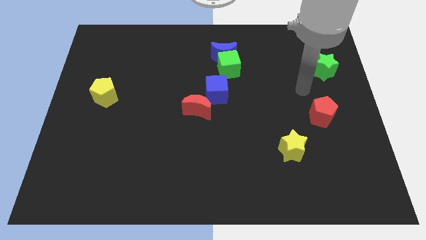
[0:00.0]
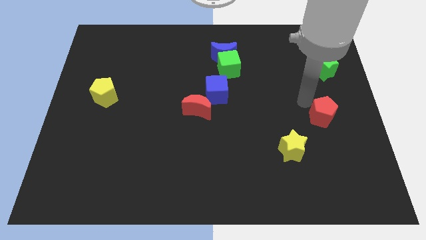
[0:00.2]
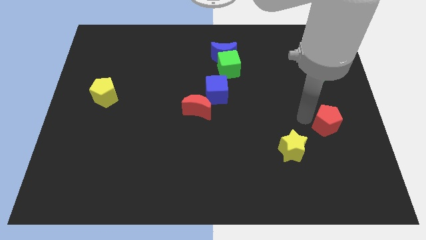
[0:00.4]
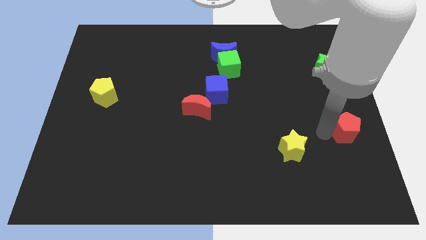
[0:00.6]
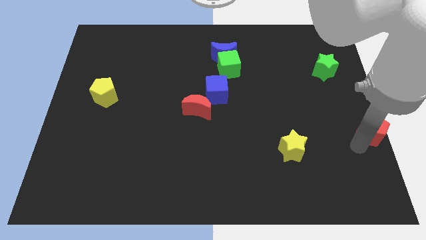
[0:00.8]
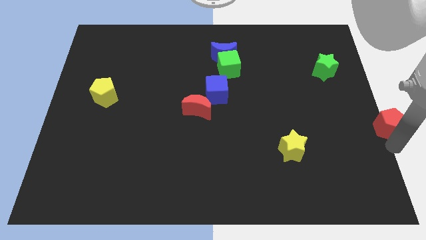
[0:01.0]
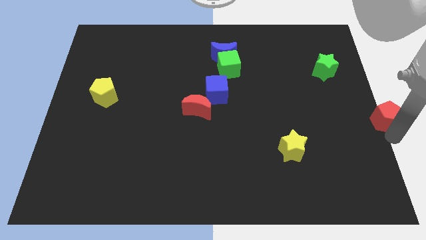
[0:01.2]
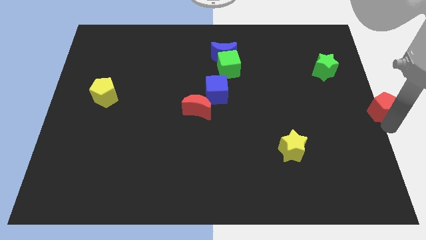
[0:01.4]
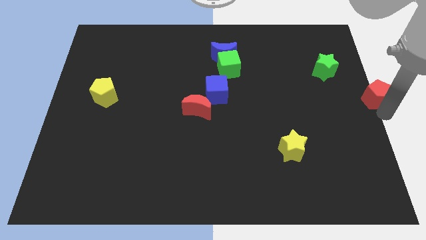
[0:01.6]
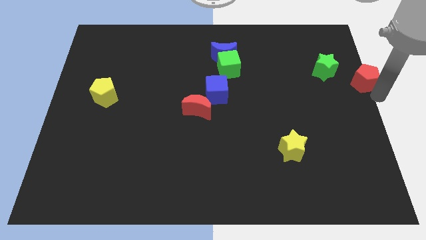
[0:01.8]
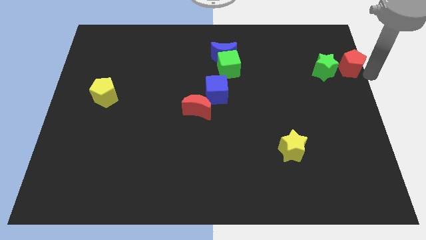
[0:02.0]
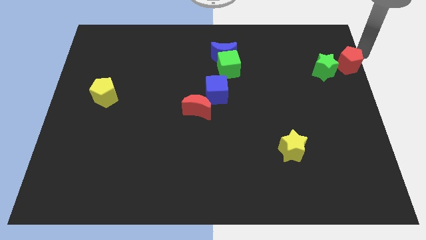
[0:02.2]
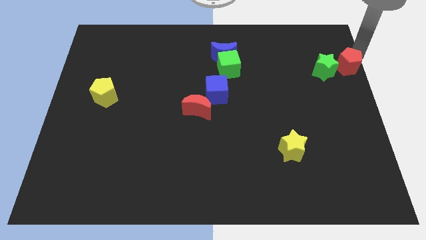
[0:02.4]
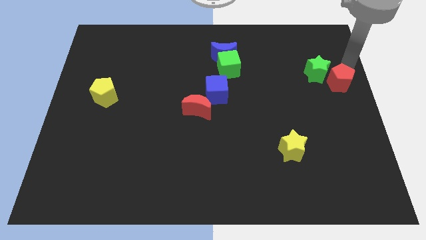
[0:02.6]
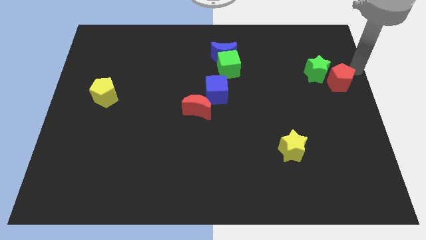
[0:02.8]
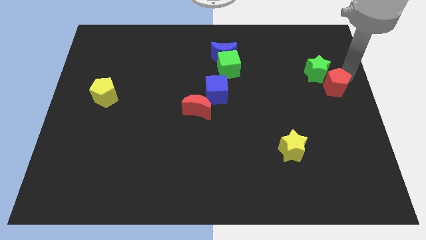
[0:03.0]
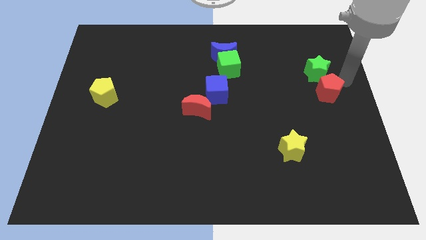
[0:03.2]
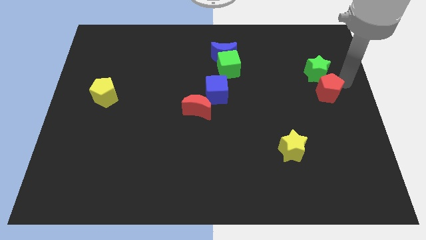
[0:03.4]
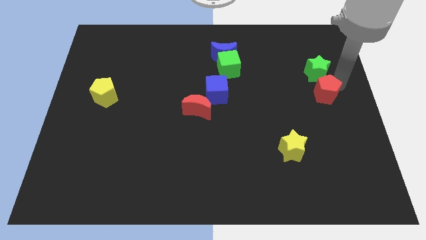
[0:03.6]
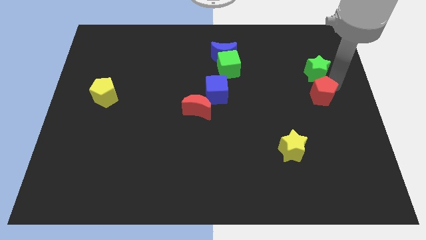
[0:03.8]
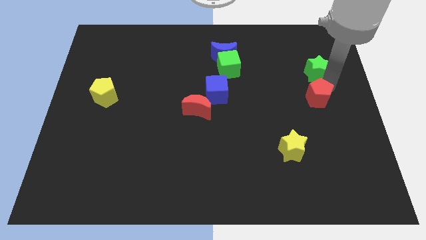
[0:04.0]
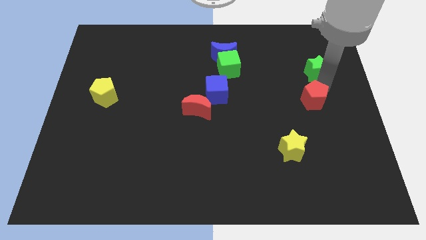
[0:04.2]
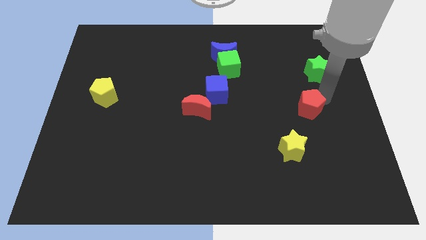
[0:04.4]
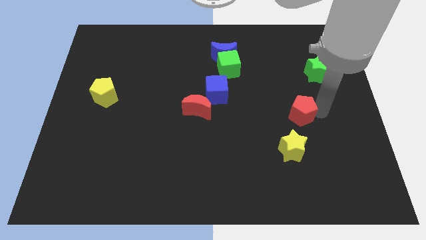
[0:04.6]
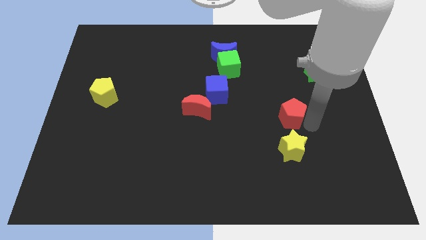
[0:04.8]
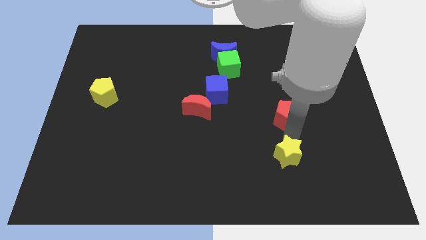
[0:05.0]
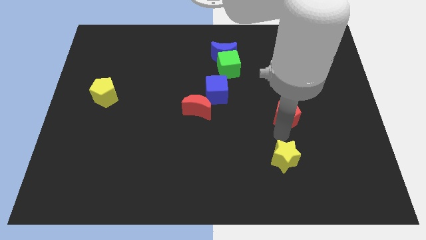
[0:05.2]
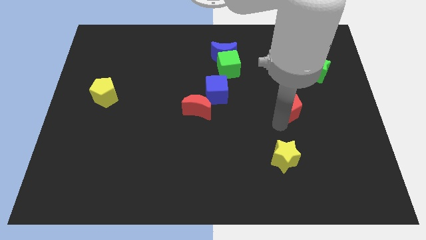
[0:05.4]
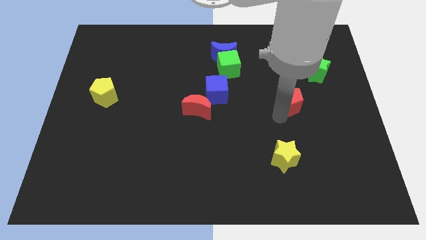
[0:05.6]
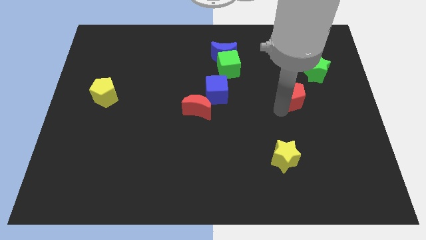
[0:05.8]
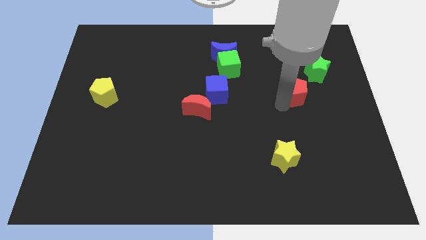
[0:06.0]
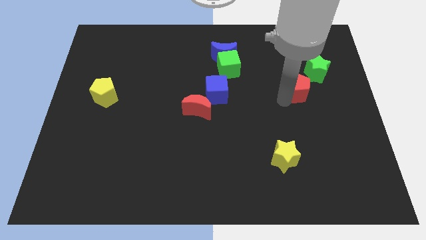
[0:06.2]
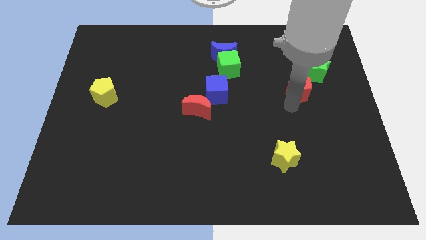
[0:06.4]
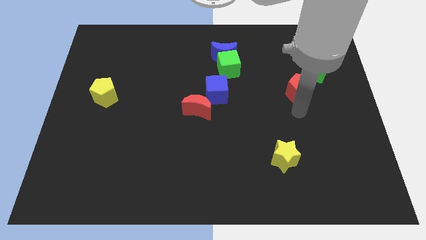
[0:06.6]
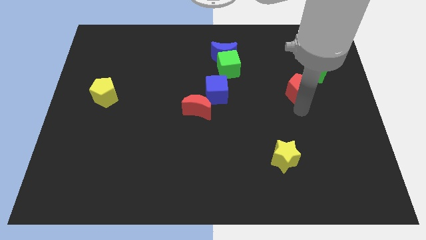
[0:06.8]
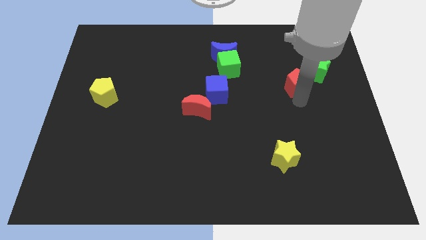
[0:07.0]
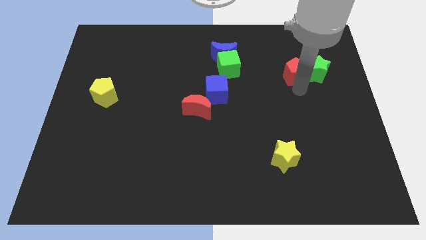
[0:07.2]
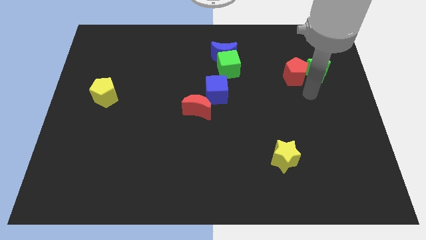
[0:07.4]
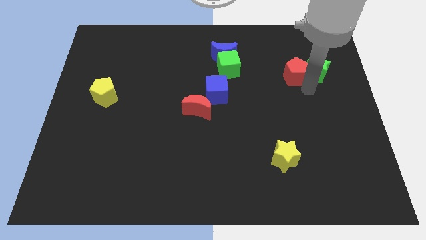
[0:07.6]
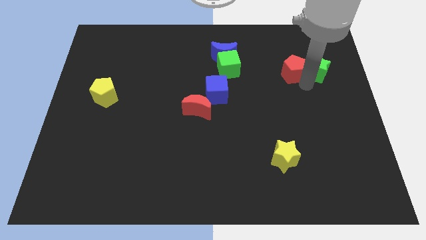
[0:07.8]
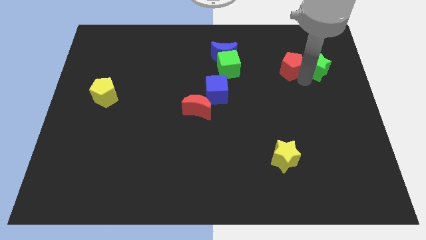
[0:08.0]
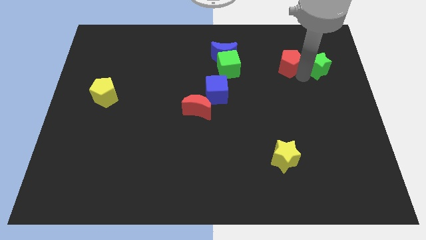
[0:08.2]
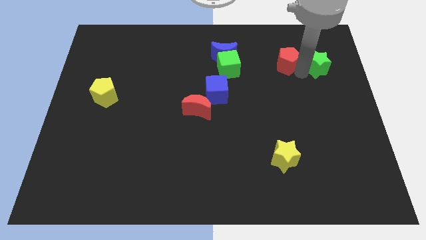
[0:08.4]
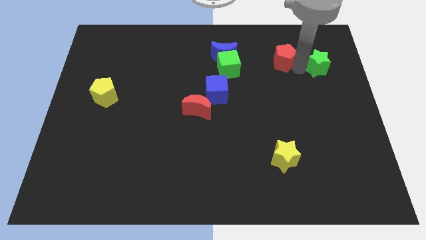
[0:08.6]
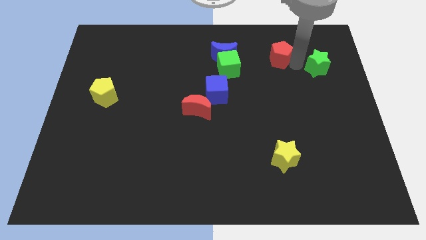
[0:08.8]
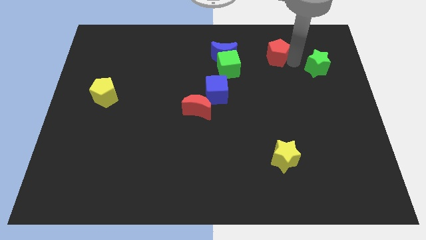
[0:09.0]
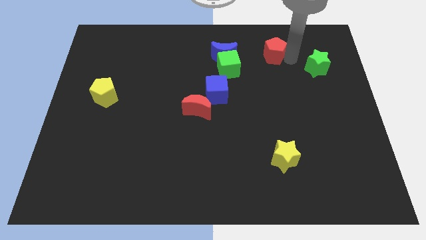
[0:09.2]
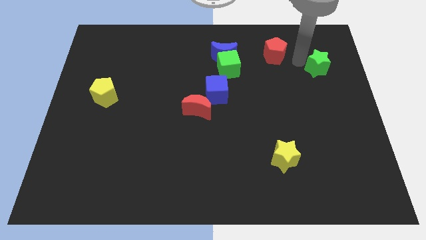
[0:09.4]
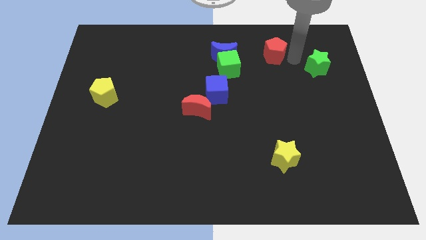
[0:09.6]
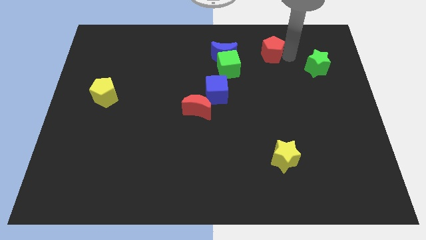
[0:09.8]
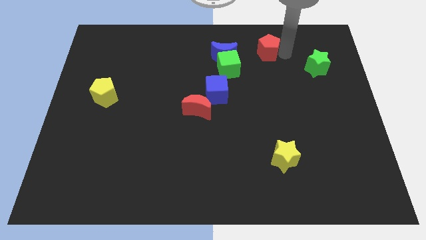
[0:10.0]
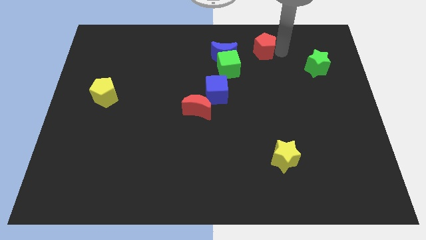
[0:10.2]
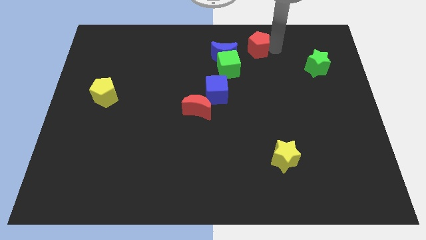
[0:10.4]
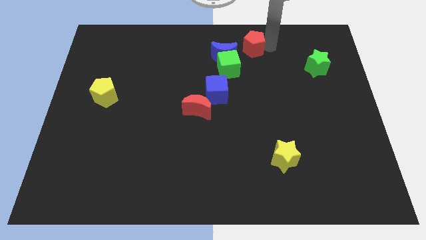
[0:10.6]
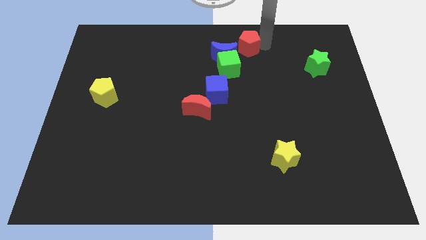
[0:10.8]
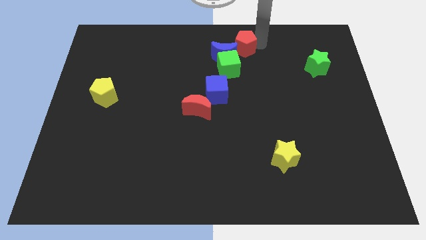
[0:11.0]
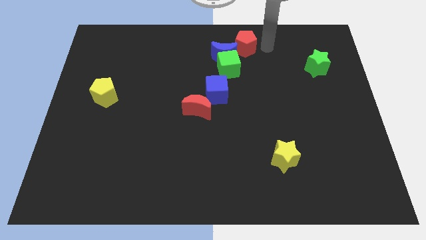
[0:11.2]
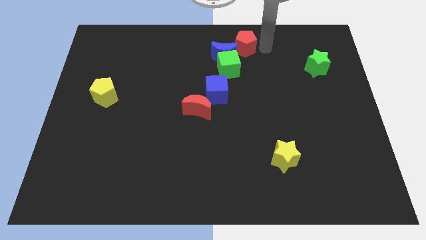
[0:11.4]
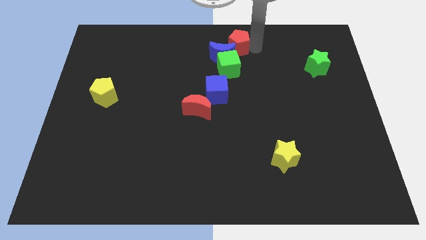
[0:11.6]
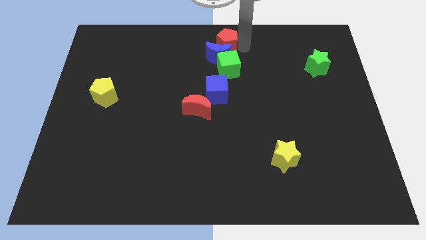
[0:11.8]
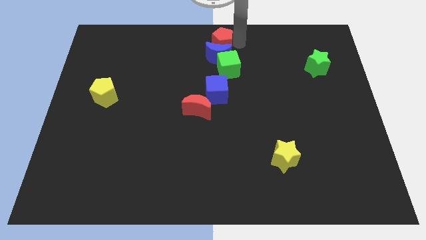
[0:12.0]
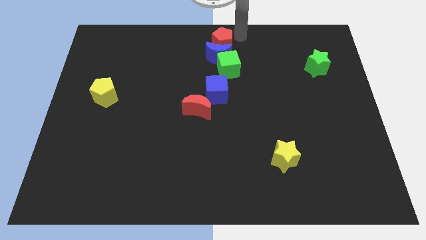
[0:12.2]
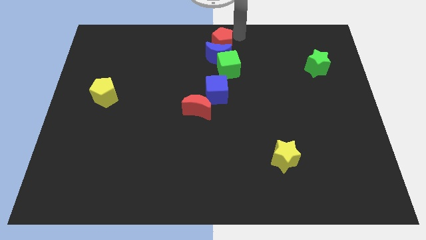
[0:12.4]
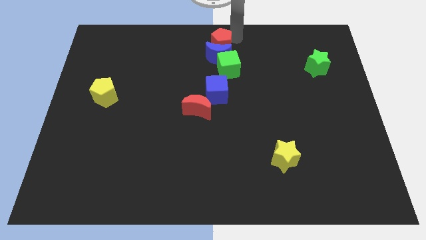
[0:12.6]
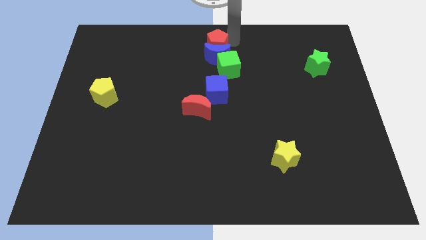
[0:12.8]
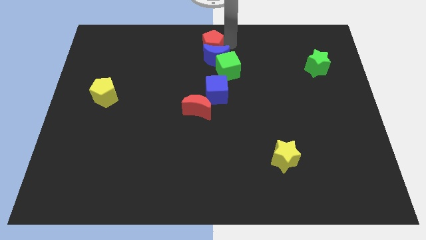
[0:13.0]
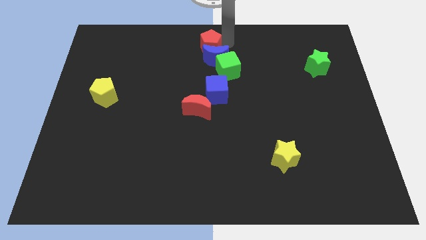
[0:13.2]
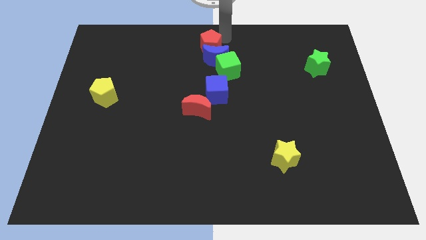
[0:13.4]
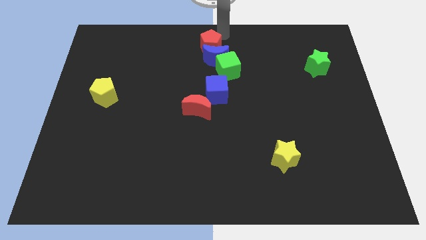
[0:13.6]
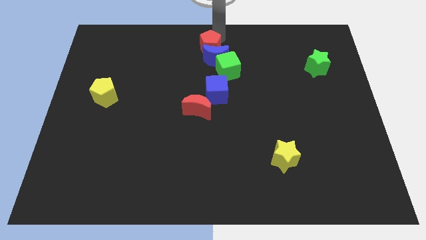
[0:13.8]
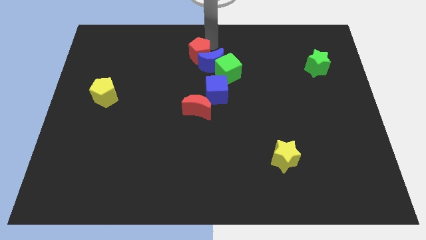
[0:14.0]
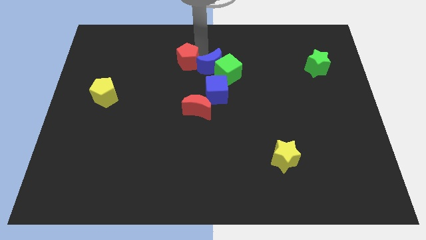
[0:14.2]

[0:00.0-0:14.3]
move the red pentagon to the left side of the green cube
